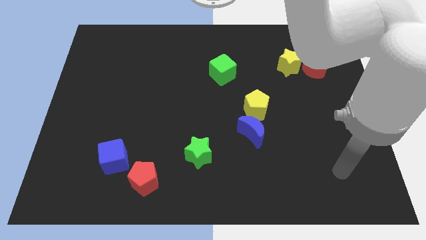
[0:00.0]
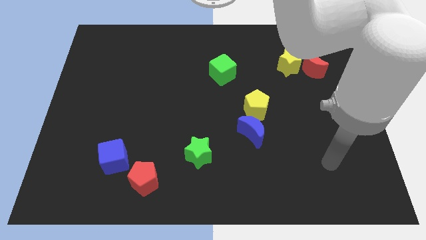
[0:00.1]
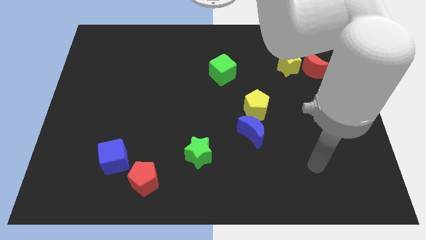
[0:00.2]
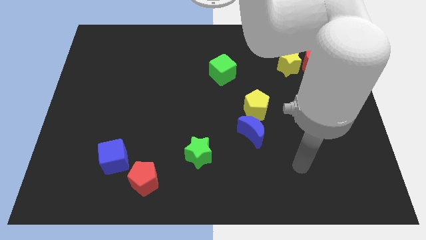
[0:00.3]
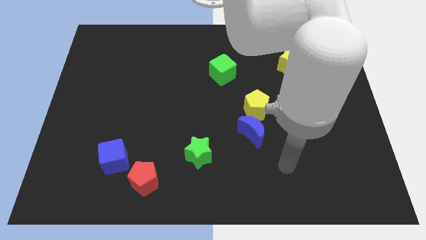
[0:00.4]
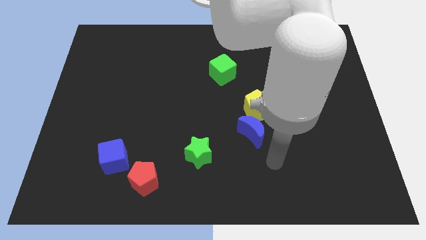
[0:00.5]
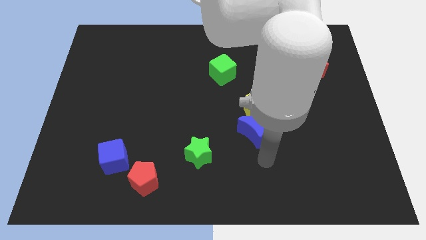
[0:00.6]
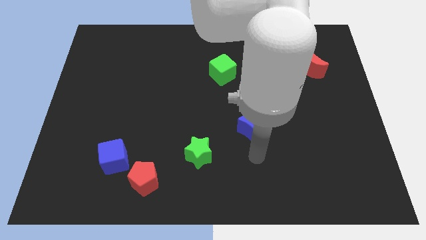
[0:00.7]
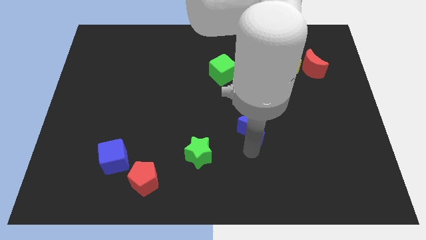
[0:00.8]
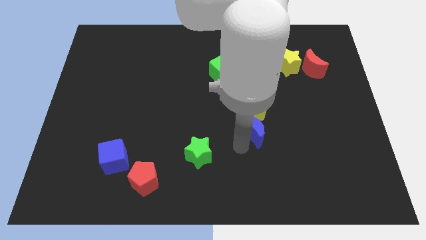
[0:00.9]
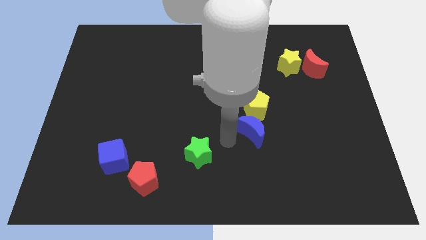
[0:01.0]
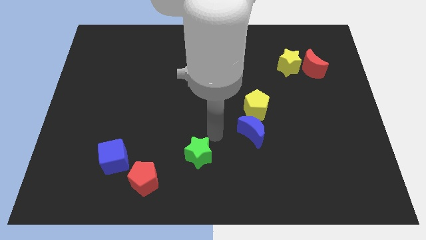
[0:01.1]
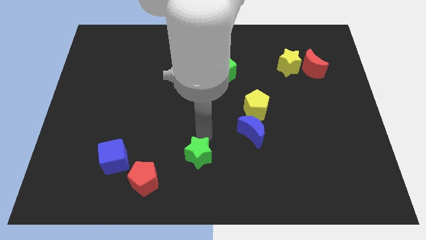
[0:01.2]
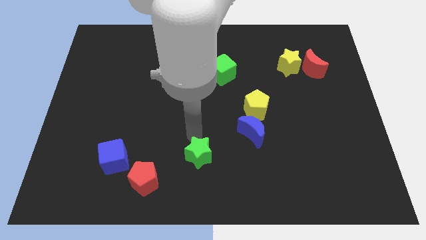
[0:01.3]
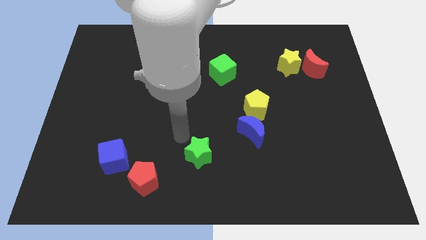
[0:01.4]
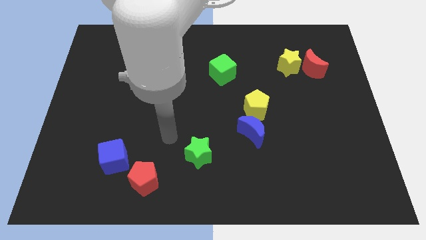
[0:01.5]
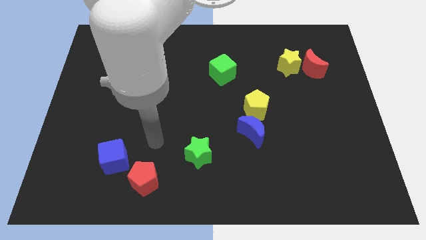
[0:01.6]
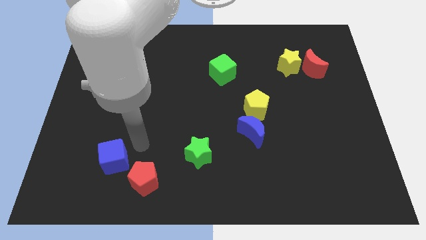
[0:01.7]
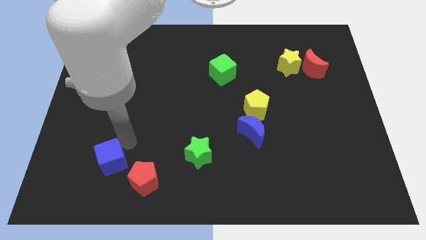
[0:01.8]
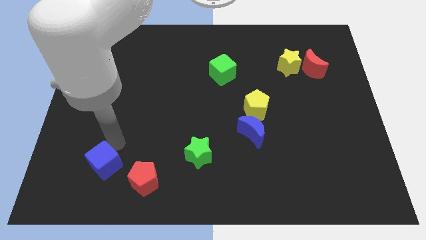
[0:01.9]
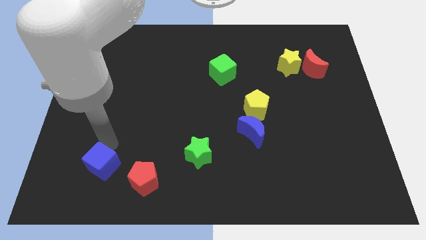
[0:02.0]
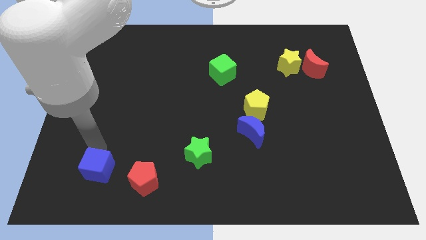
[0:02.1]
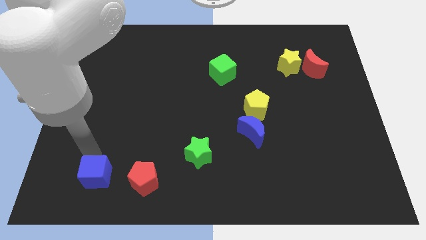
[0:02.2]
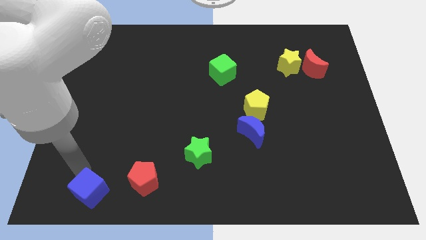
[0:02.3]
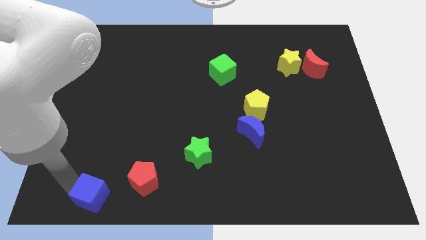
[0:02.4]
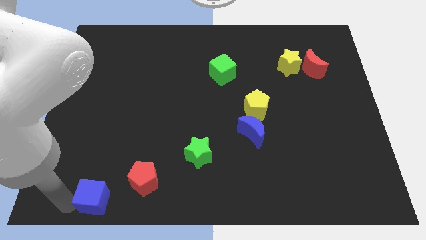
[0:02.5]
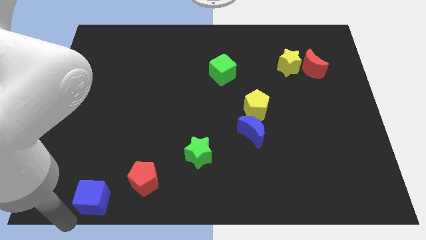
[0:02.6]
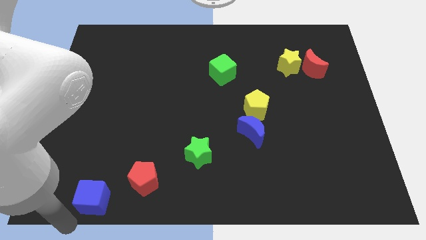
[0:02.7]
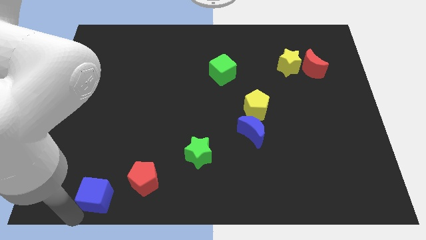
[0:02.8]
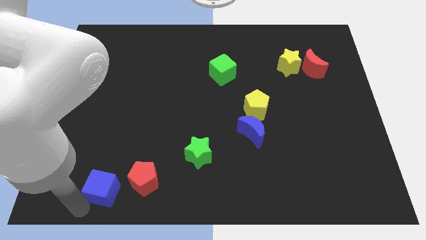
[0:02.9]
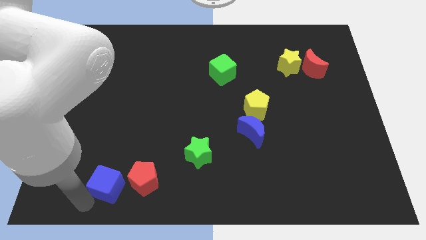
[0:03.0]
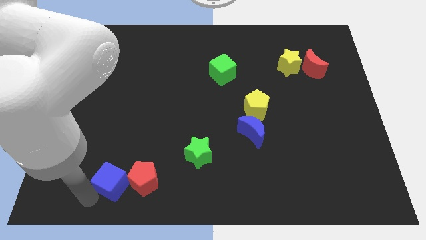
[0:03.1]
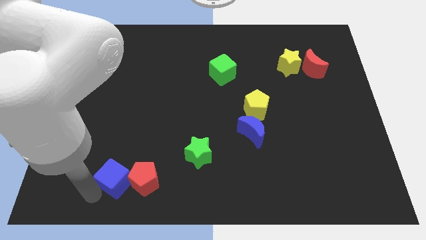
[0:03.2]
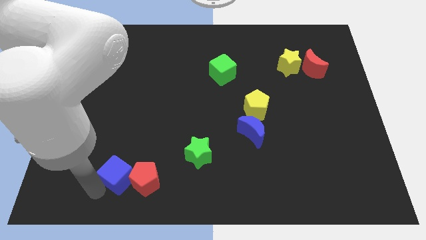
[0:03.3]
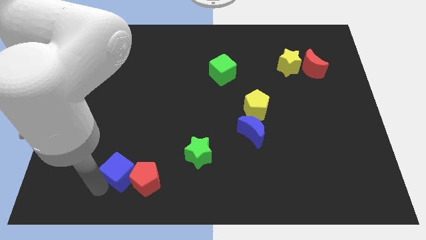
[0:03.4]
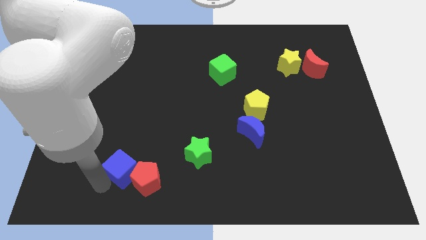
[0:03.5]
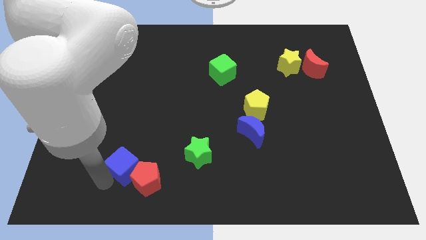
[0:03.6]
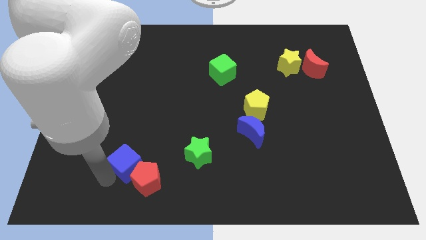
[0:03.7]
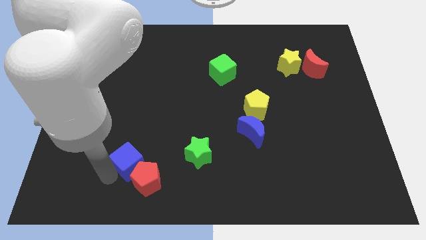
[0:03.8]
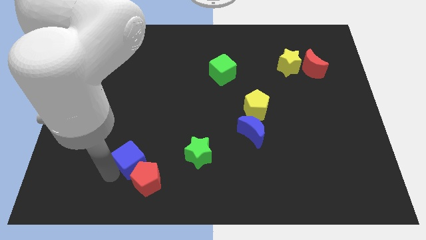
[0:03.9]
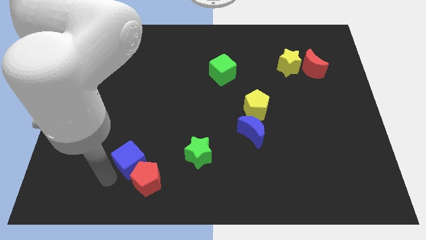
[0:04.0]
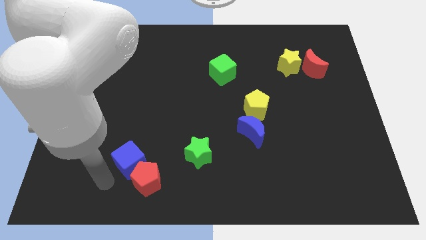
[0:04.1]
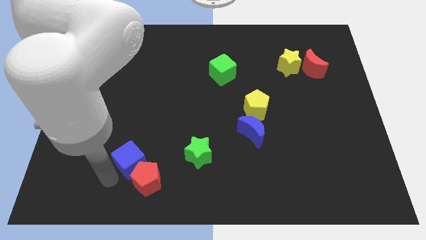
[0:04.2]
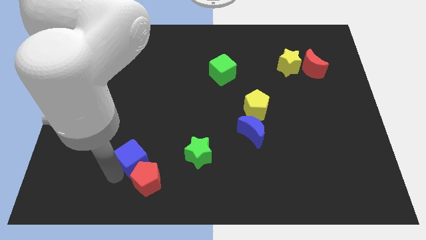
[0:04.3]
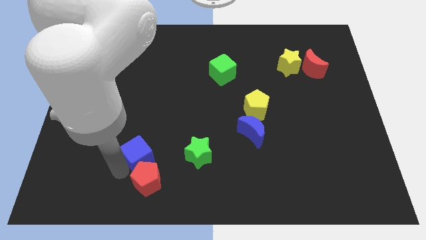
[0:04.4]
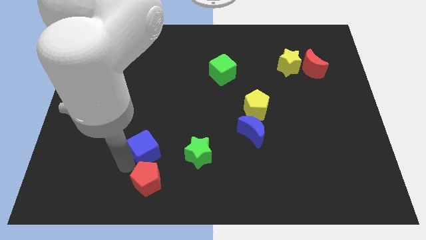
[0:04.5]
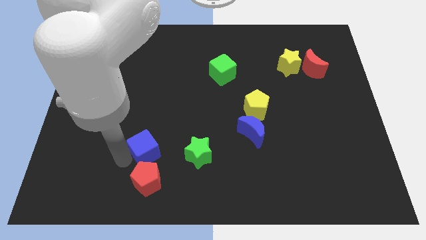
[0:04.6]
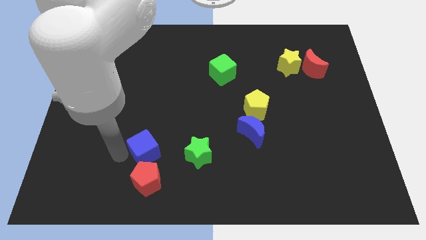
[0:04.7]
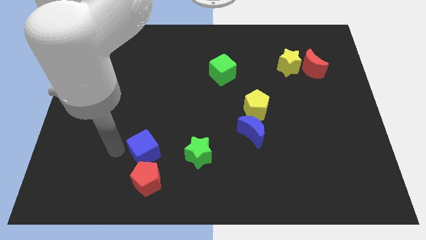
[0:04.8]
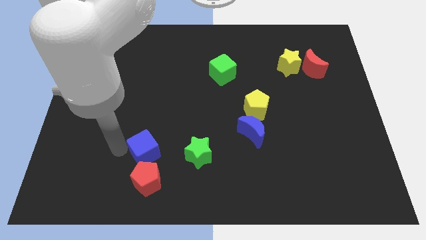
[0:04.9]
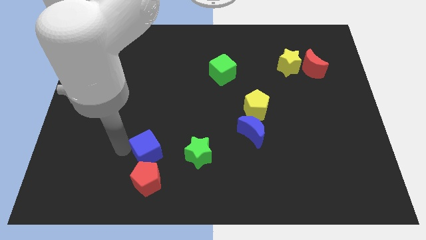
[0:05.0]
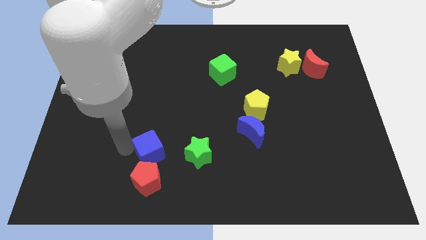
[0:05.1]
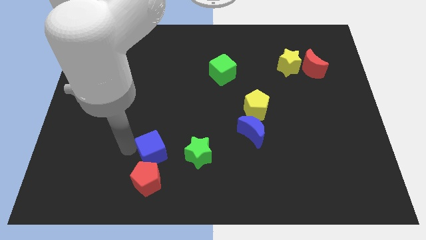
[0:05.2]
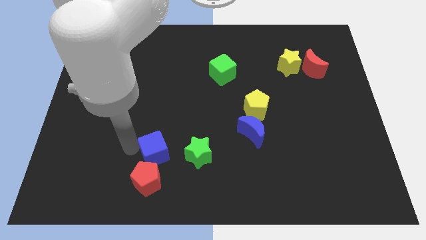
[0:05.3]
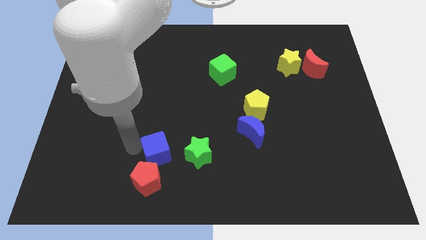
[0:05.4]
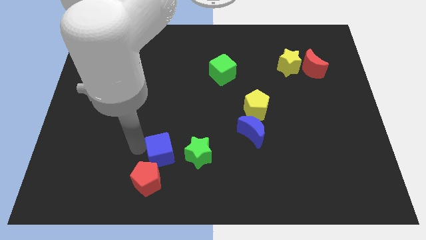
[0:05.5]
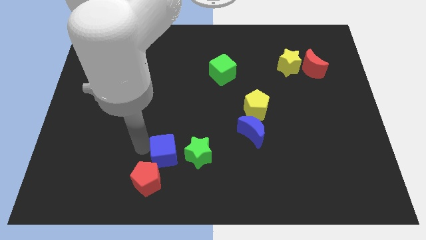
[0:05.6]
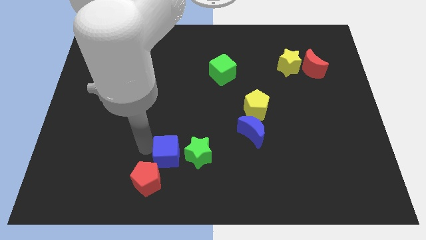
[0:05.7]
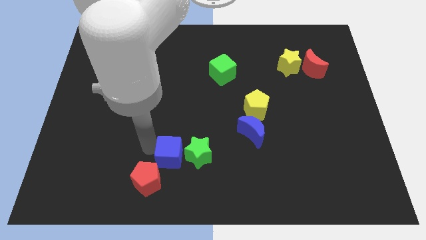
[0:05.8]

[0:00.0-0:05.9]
slide the blue cube close to the green star

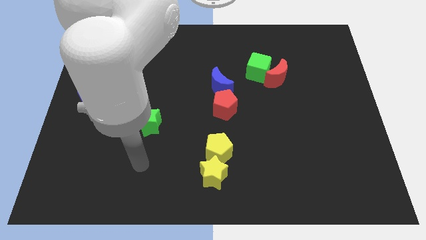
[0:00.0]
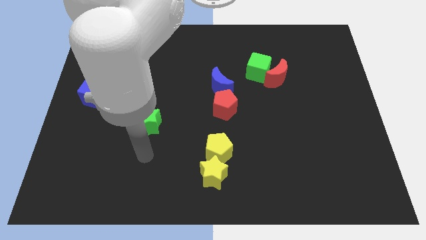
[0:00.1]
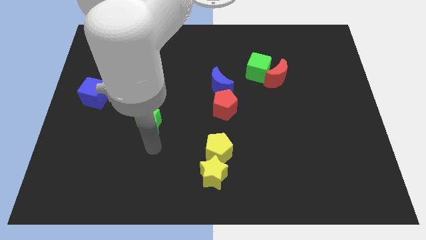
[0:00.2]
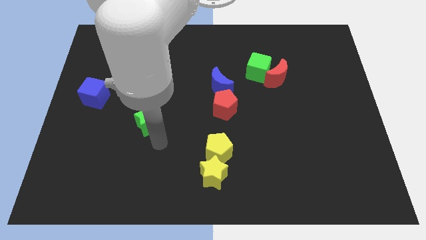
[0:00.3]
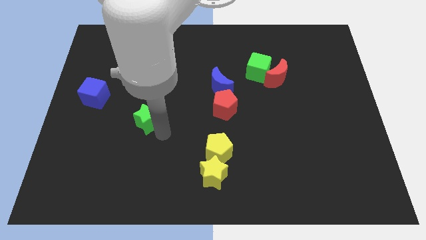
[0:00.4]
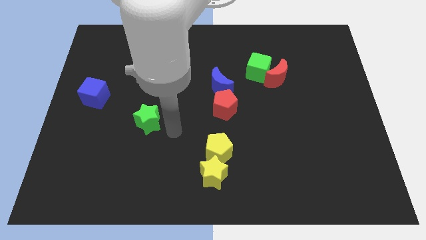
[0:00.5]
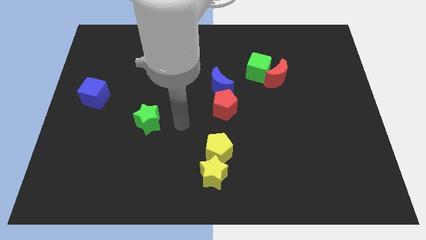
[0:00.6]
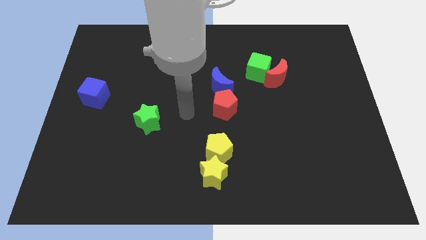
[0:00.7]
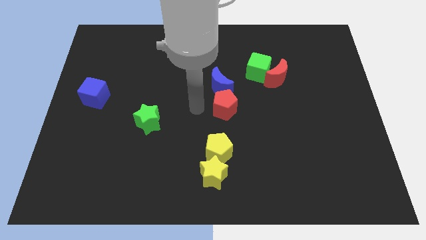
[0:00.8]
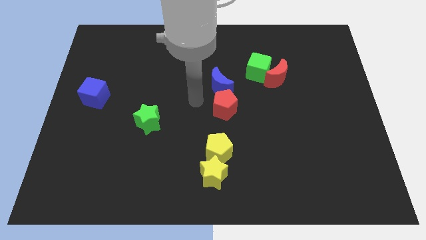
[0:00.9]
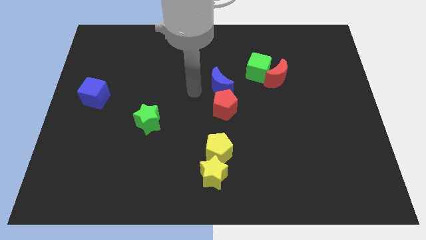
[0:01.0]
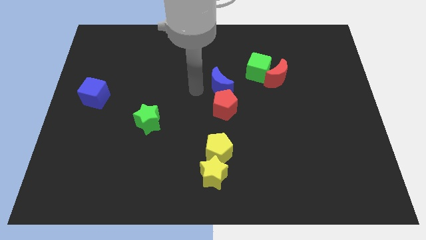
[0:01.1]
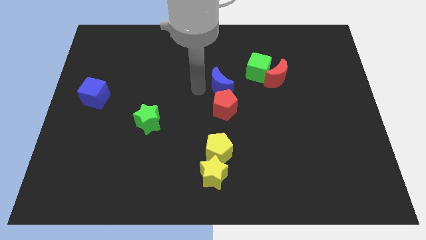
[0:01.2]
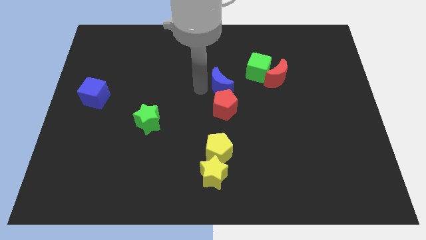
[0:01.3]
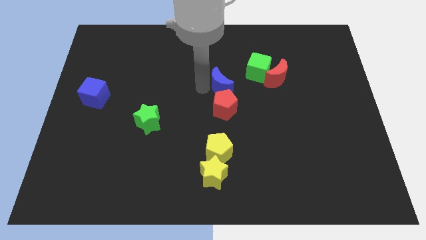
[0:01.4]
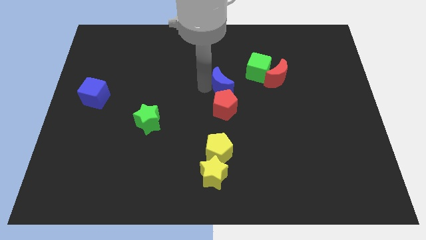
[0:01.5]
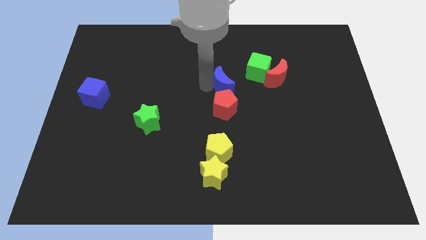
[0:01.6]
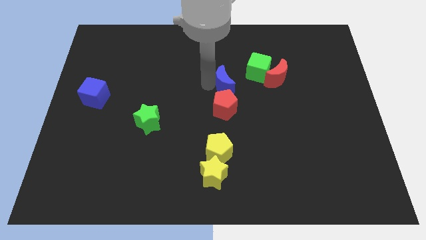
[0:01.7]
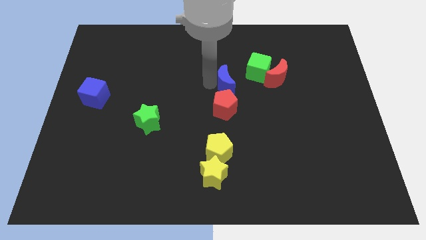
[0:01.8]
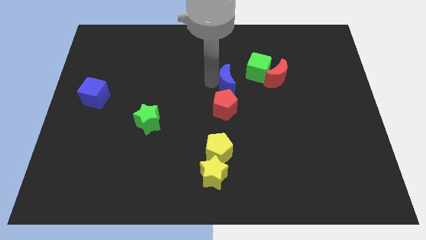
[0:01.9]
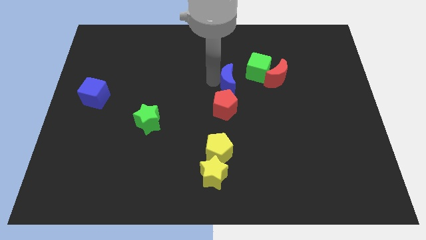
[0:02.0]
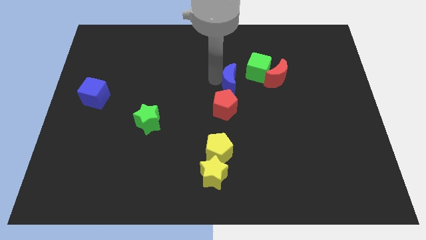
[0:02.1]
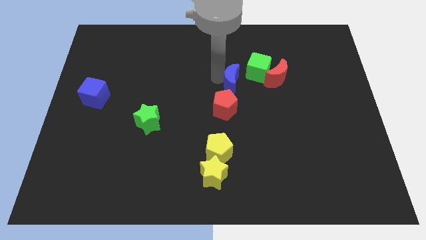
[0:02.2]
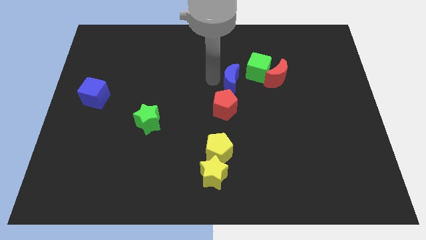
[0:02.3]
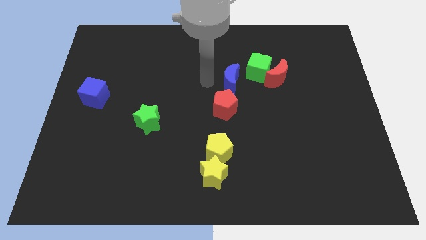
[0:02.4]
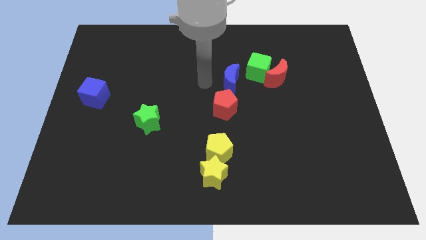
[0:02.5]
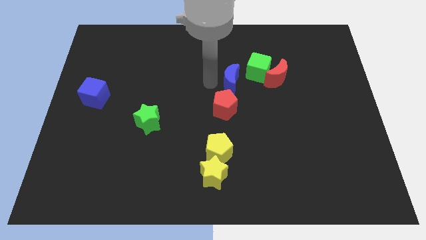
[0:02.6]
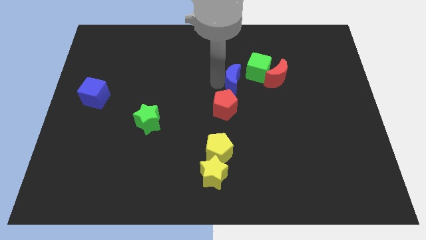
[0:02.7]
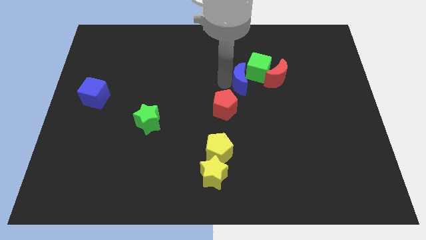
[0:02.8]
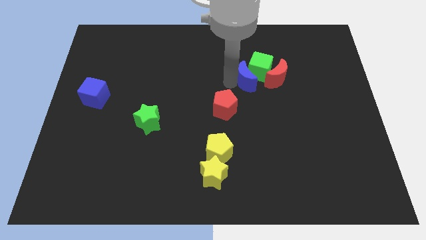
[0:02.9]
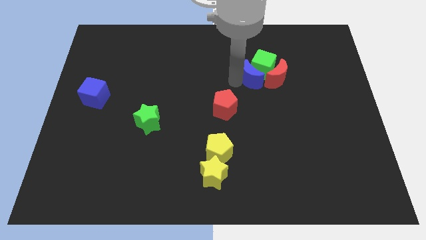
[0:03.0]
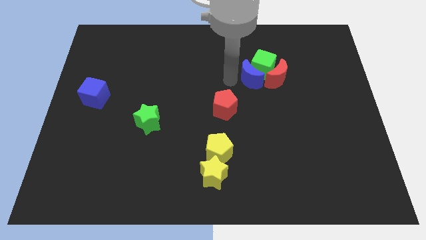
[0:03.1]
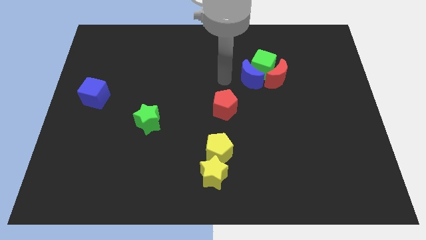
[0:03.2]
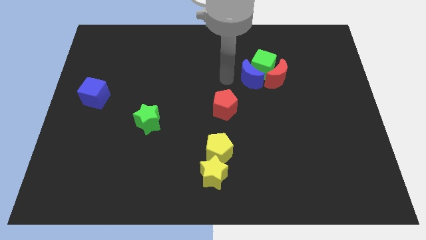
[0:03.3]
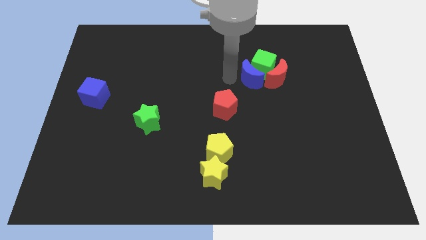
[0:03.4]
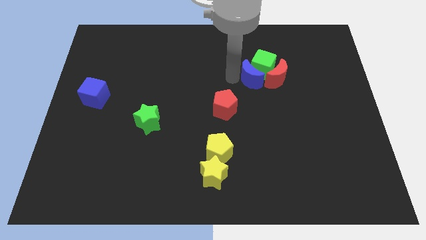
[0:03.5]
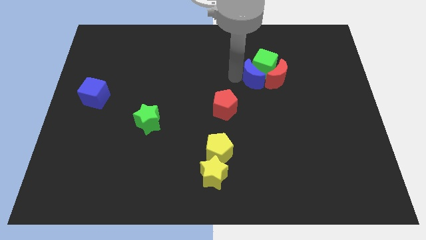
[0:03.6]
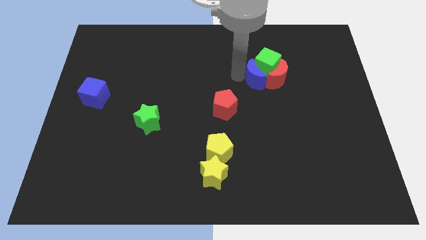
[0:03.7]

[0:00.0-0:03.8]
move the blue moon next to the red moon
